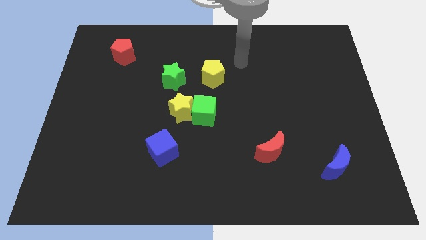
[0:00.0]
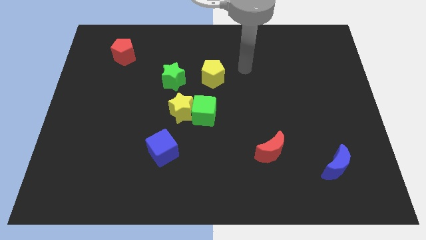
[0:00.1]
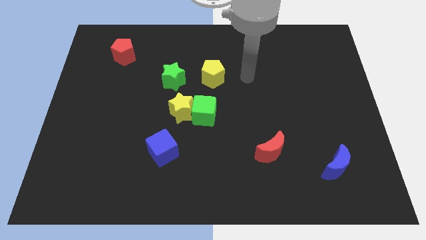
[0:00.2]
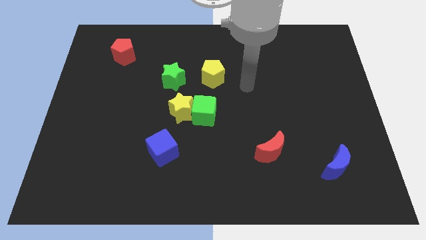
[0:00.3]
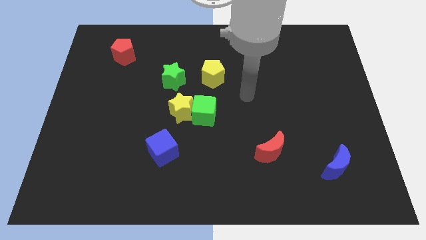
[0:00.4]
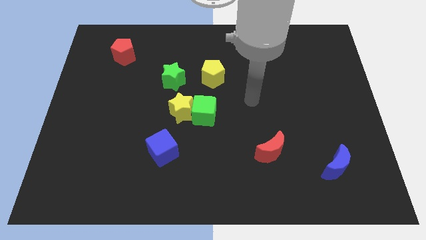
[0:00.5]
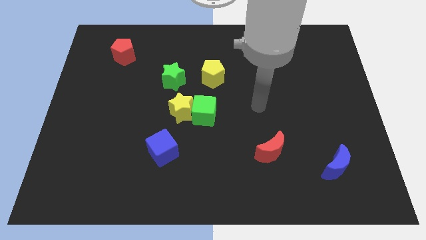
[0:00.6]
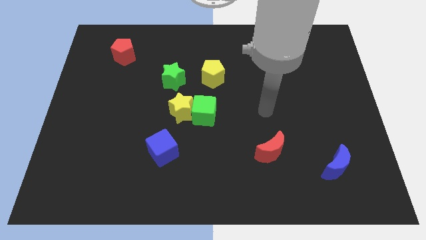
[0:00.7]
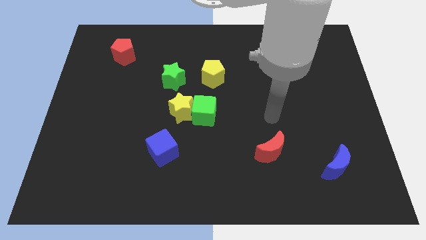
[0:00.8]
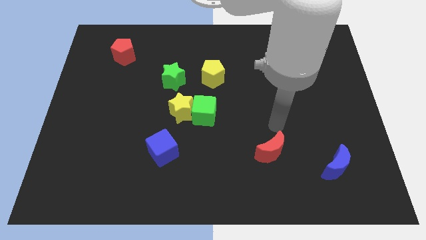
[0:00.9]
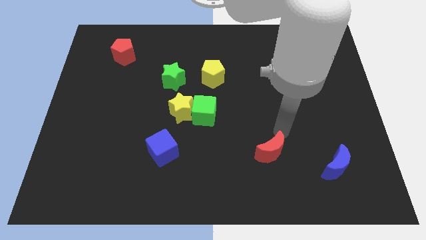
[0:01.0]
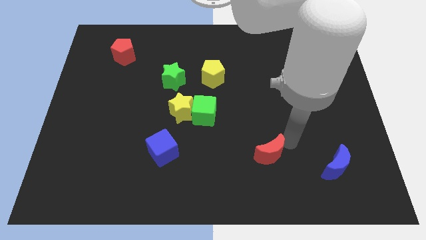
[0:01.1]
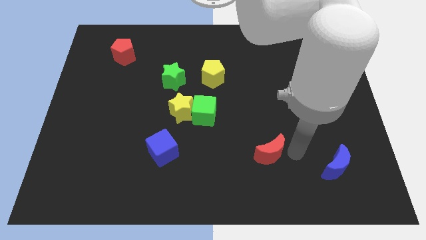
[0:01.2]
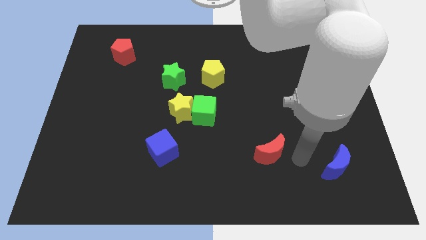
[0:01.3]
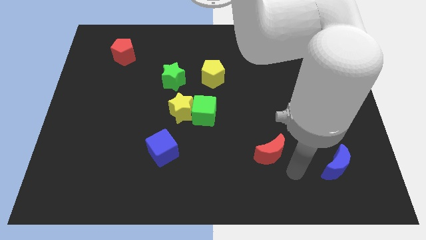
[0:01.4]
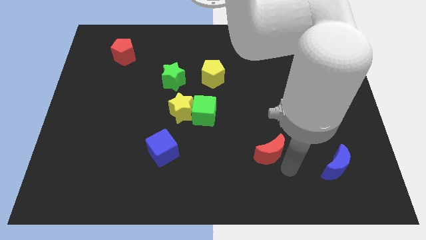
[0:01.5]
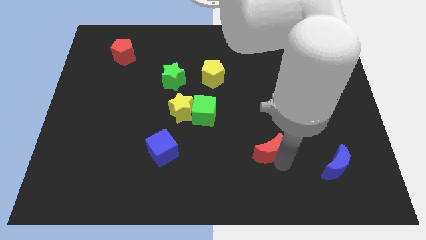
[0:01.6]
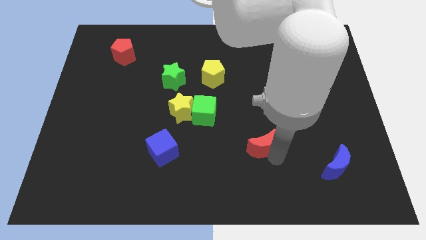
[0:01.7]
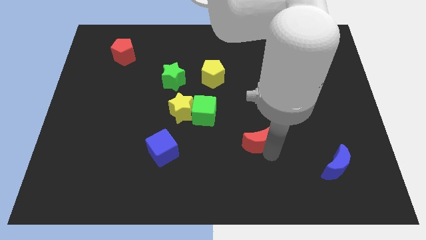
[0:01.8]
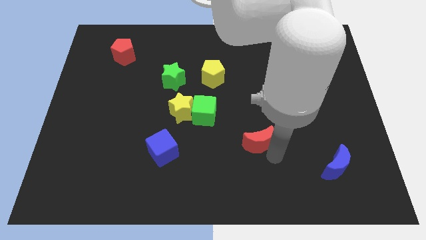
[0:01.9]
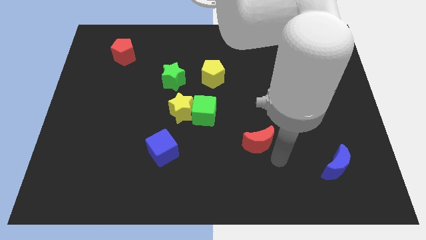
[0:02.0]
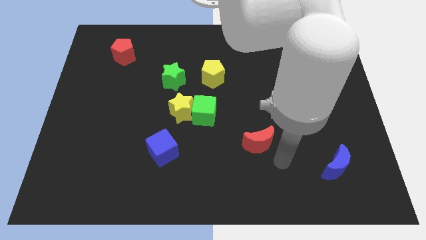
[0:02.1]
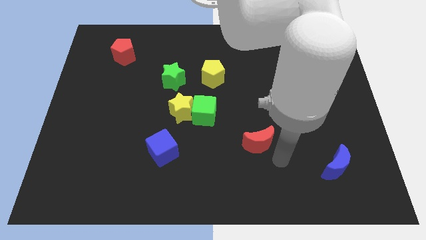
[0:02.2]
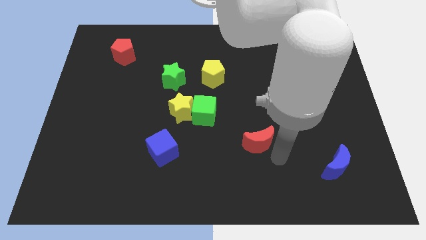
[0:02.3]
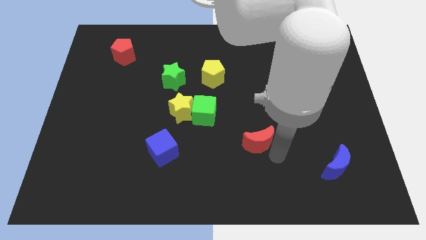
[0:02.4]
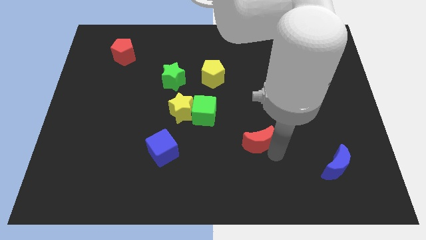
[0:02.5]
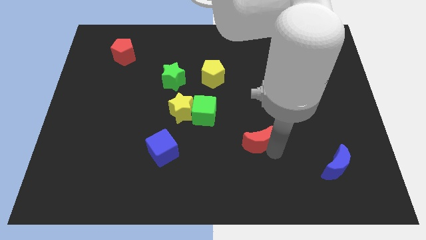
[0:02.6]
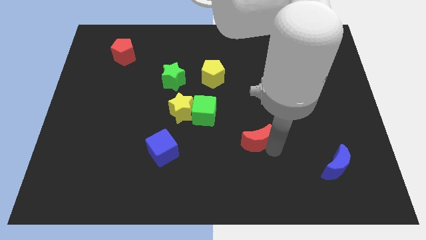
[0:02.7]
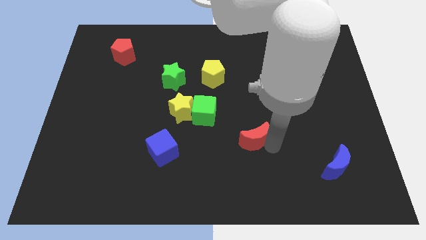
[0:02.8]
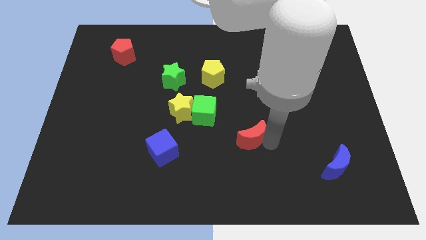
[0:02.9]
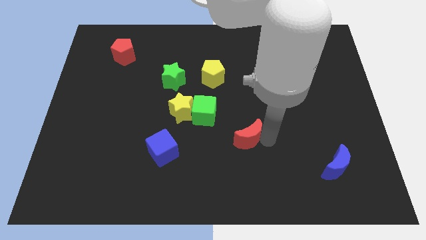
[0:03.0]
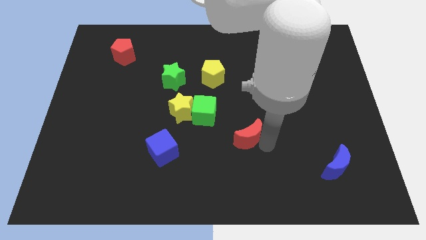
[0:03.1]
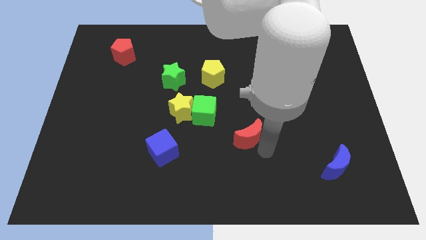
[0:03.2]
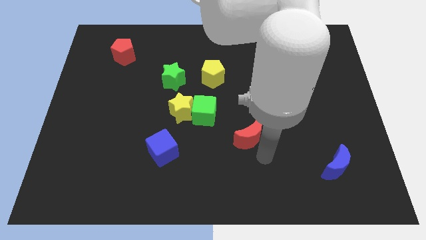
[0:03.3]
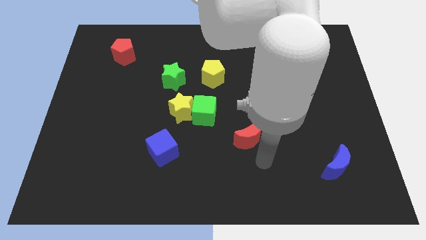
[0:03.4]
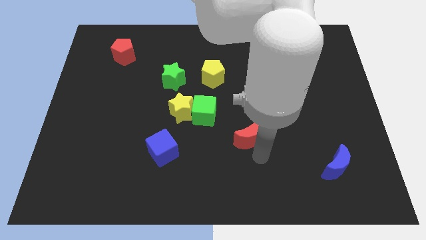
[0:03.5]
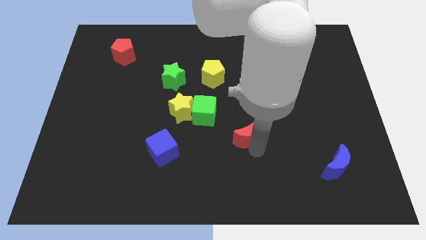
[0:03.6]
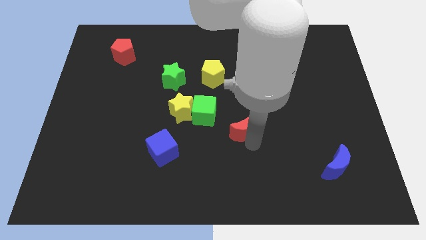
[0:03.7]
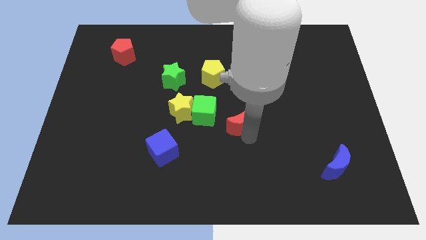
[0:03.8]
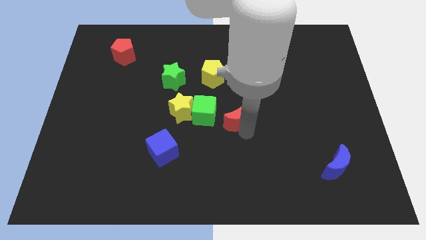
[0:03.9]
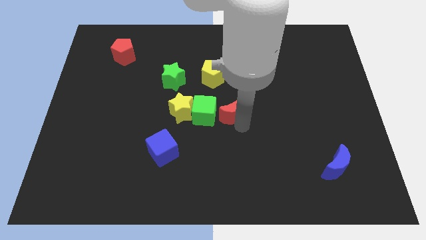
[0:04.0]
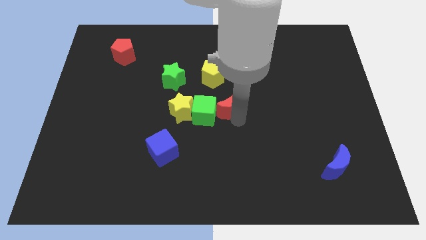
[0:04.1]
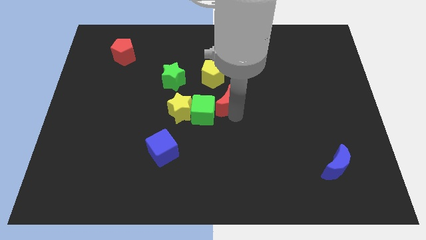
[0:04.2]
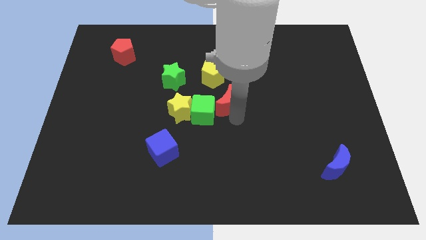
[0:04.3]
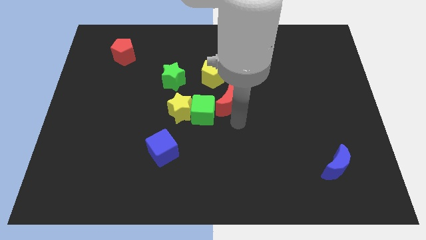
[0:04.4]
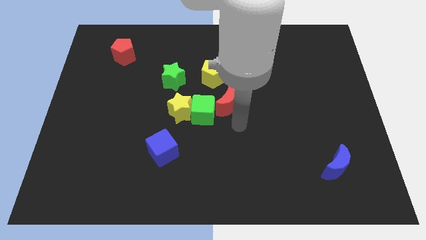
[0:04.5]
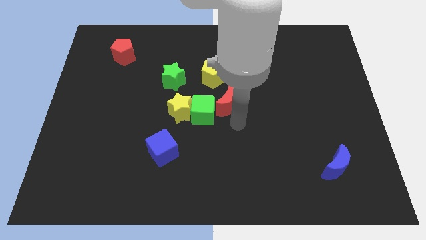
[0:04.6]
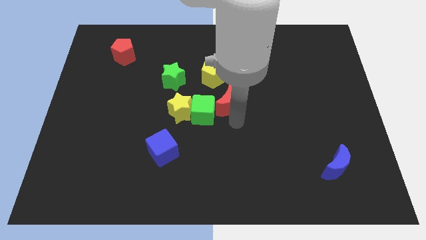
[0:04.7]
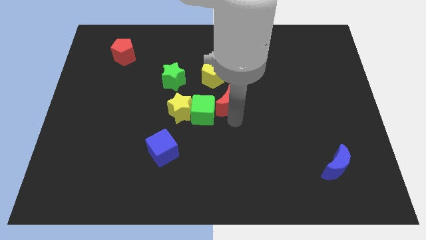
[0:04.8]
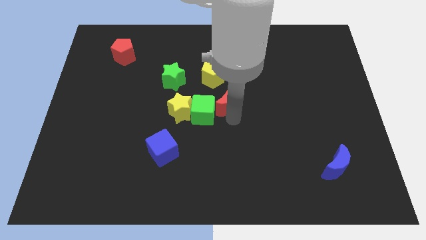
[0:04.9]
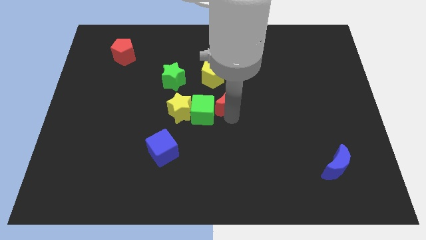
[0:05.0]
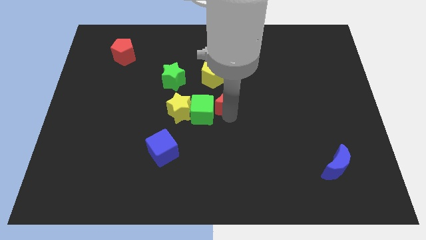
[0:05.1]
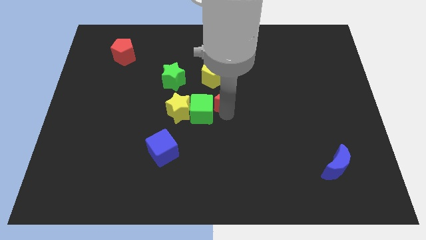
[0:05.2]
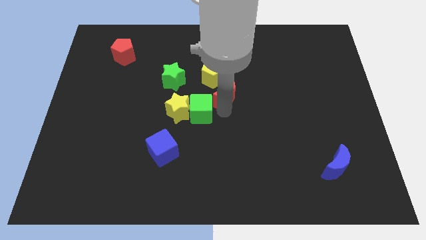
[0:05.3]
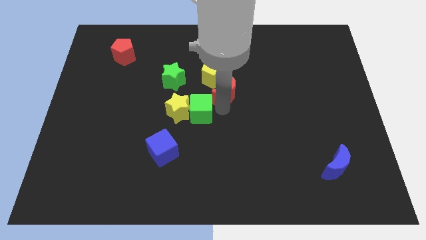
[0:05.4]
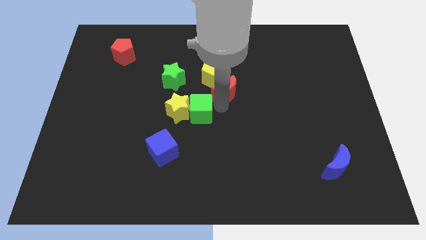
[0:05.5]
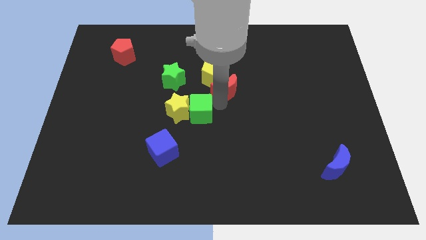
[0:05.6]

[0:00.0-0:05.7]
move the red moon to the yellow pentagon

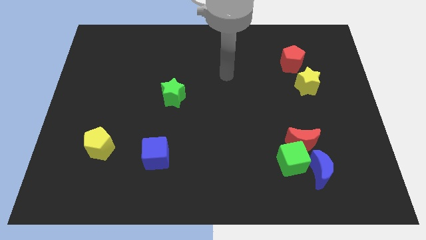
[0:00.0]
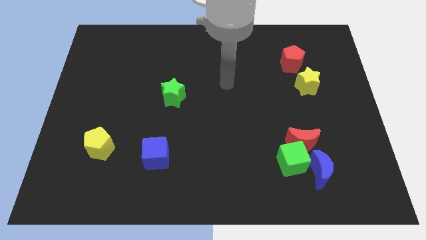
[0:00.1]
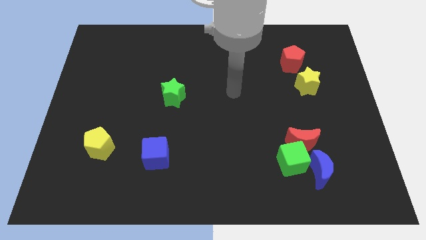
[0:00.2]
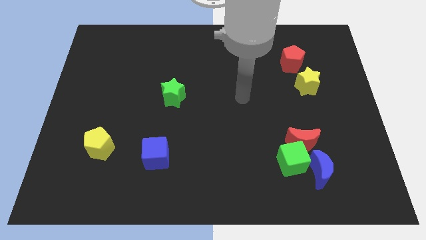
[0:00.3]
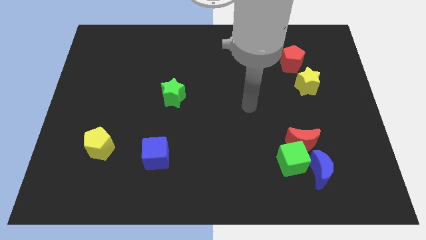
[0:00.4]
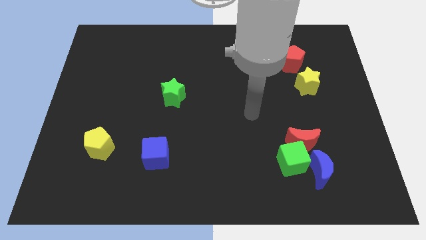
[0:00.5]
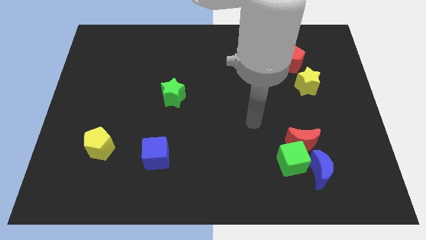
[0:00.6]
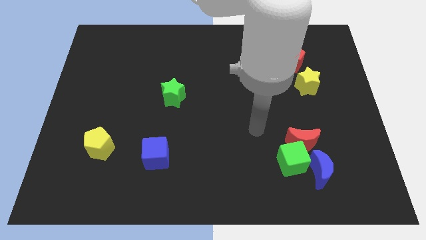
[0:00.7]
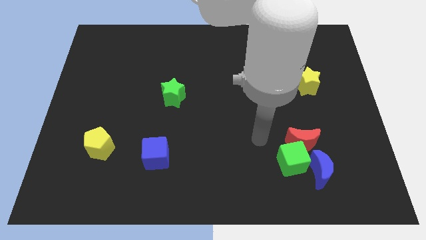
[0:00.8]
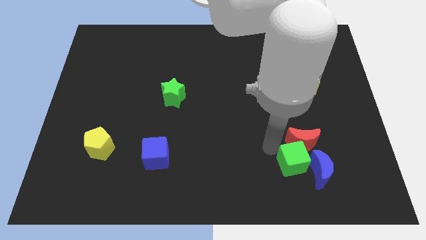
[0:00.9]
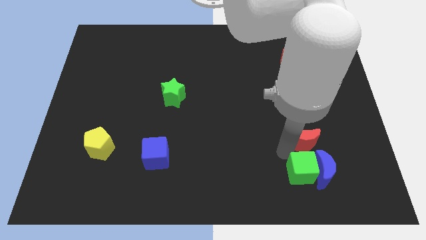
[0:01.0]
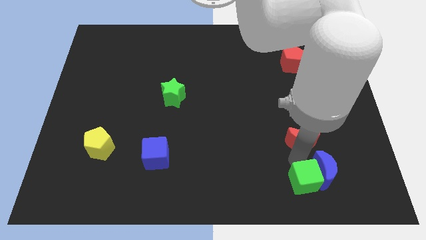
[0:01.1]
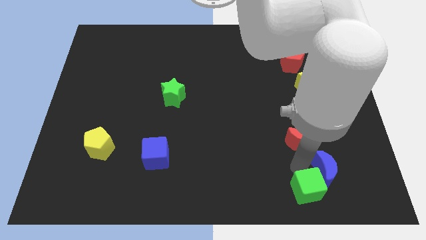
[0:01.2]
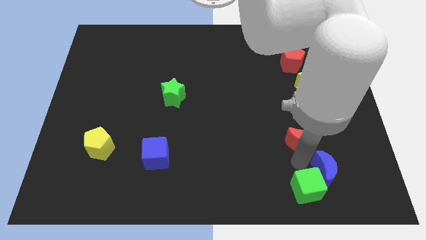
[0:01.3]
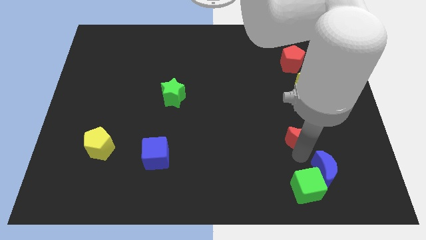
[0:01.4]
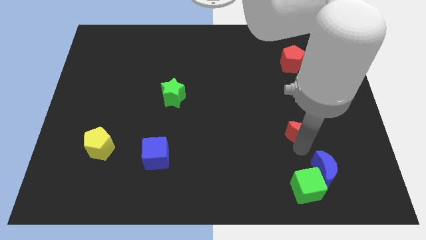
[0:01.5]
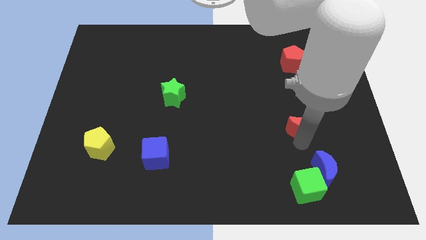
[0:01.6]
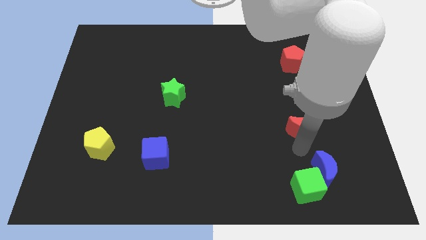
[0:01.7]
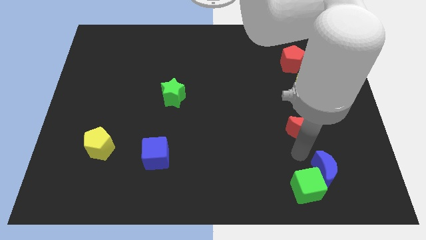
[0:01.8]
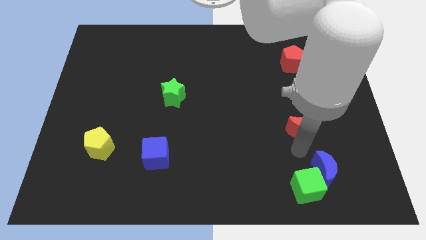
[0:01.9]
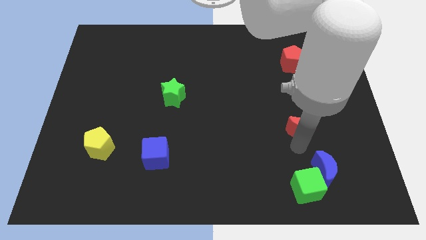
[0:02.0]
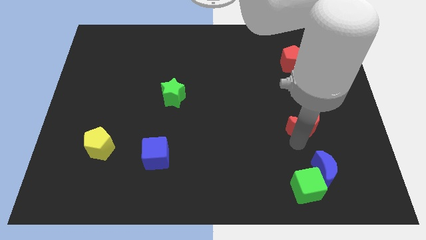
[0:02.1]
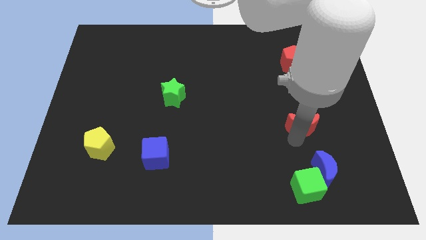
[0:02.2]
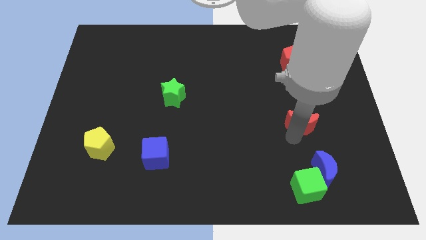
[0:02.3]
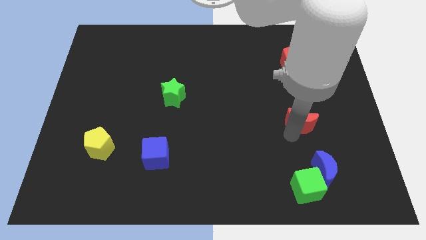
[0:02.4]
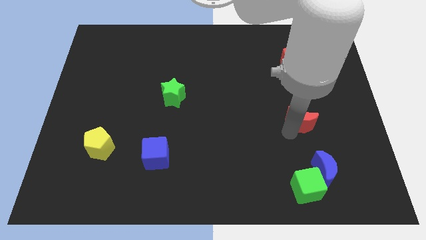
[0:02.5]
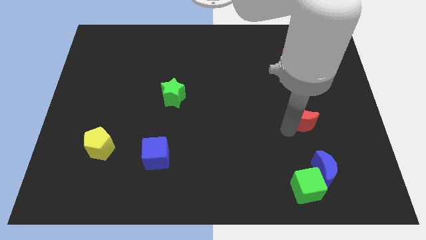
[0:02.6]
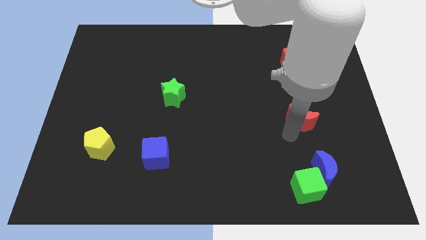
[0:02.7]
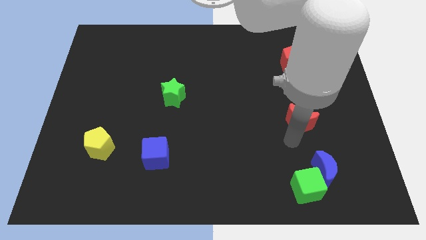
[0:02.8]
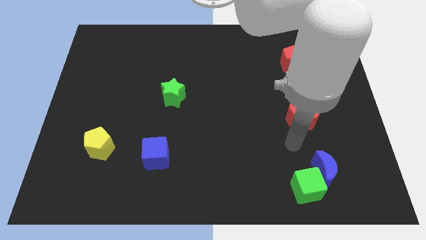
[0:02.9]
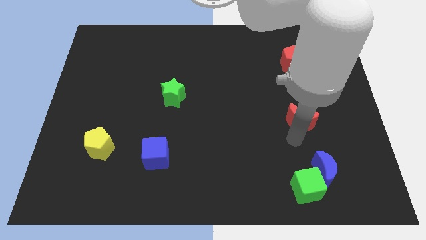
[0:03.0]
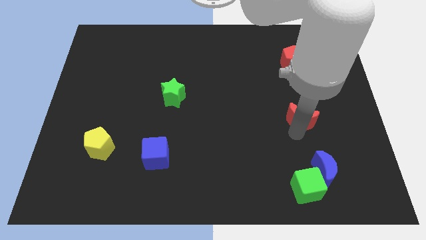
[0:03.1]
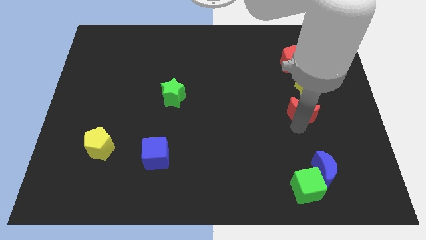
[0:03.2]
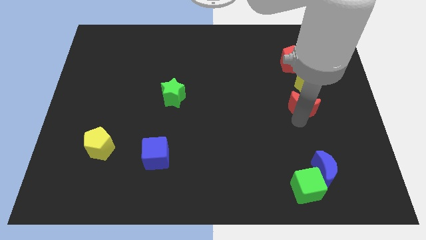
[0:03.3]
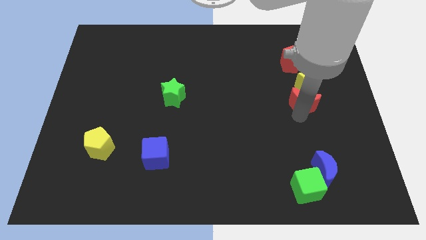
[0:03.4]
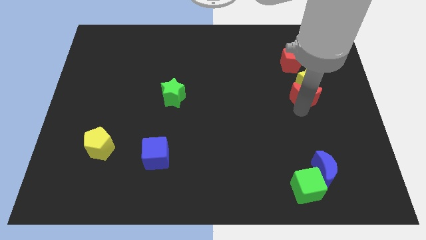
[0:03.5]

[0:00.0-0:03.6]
push the red moon to the yellow star
